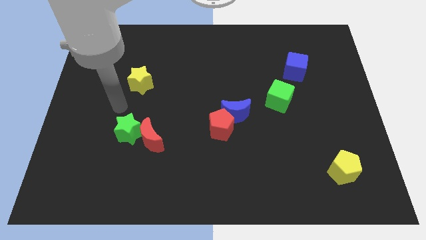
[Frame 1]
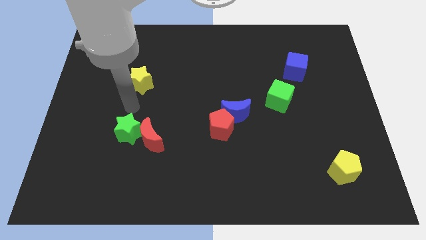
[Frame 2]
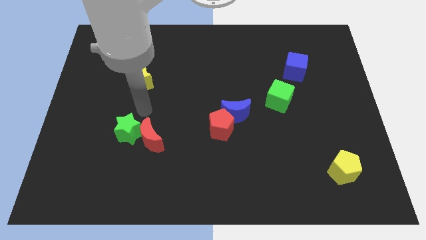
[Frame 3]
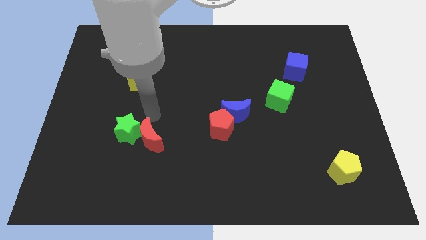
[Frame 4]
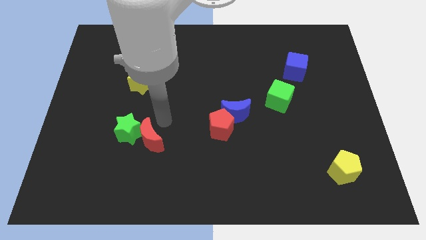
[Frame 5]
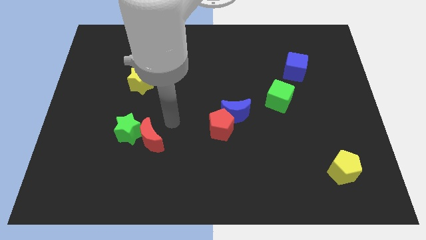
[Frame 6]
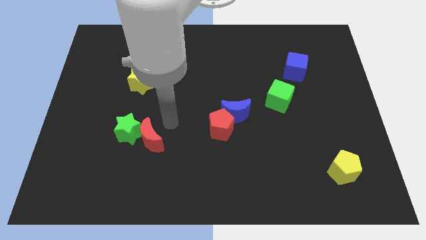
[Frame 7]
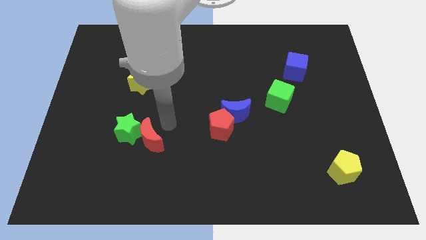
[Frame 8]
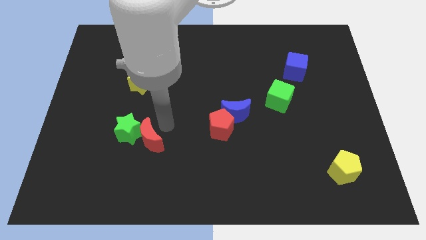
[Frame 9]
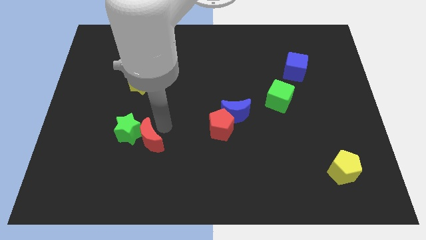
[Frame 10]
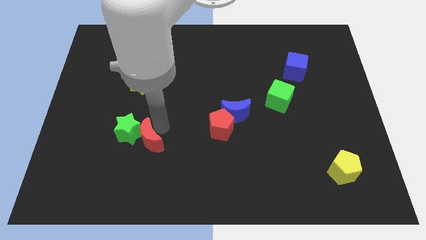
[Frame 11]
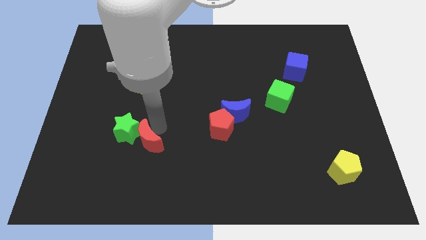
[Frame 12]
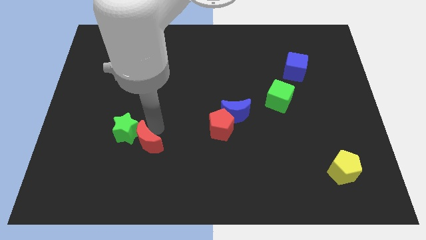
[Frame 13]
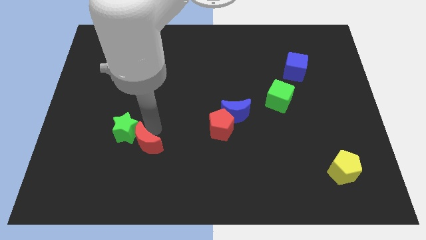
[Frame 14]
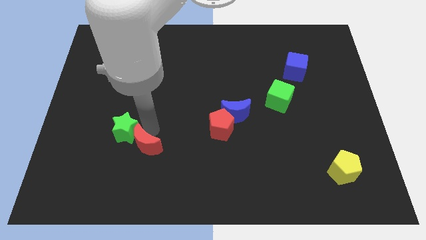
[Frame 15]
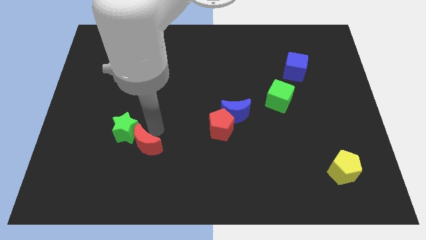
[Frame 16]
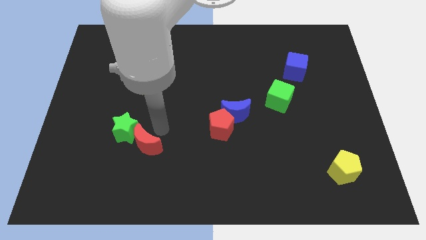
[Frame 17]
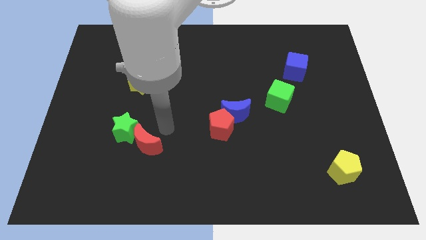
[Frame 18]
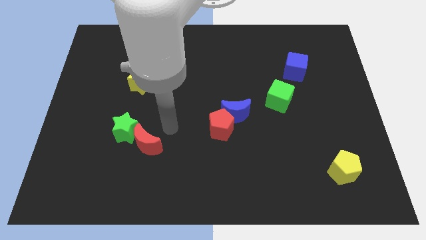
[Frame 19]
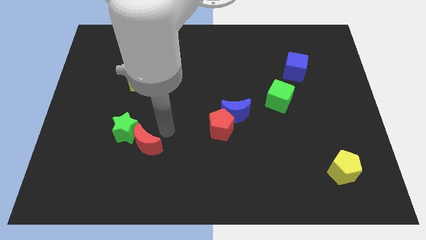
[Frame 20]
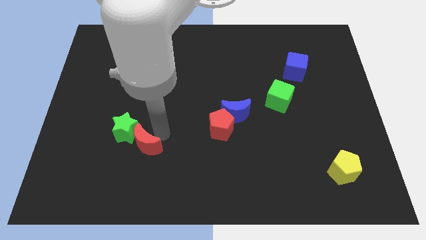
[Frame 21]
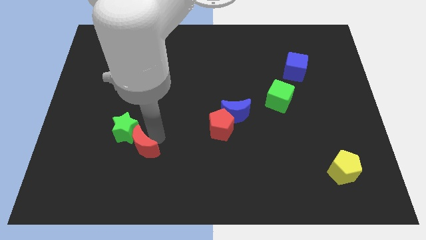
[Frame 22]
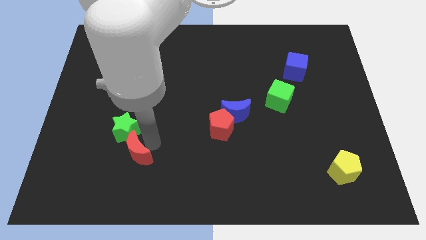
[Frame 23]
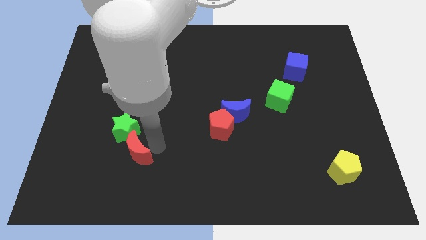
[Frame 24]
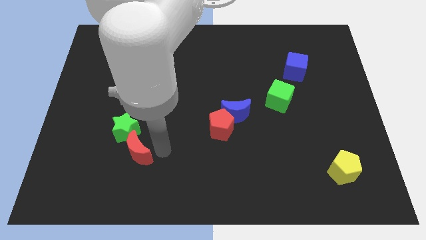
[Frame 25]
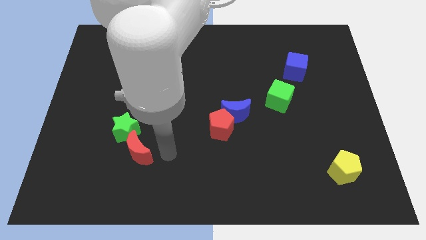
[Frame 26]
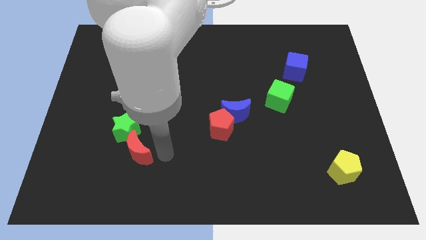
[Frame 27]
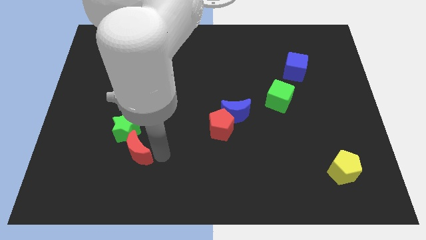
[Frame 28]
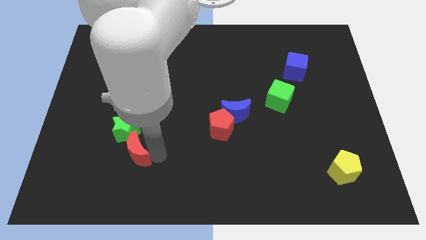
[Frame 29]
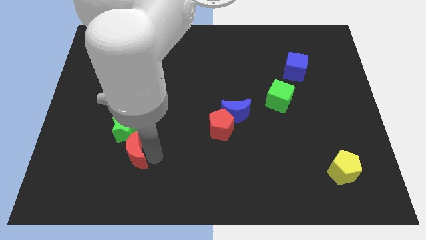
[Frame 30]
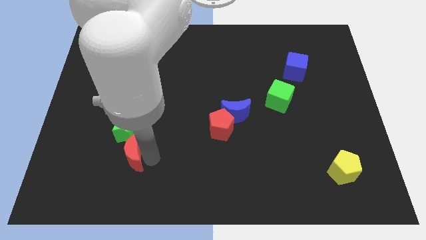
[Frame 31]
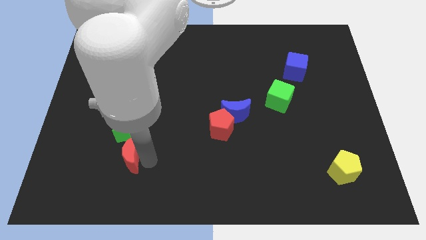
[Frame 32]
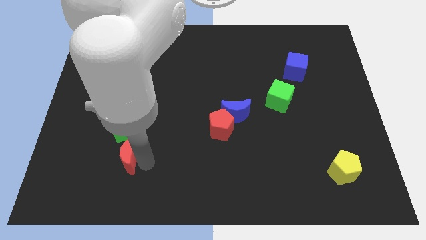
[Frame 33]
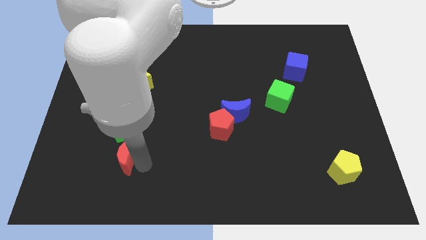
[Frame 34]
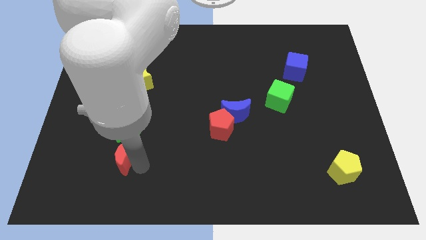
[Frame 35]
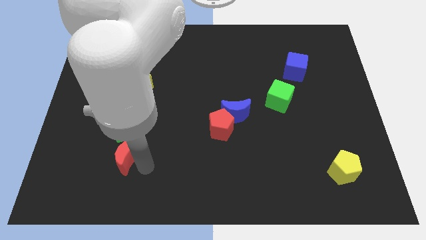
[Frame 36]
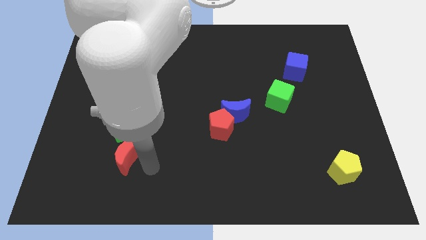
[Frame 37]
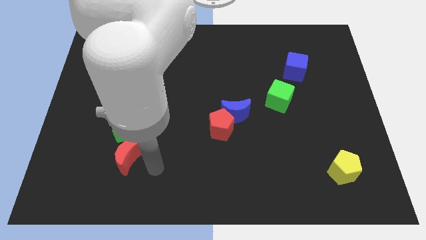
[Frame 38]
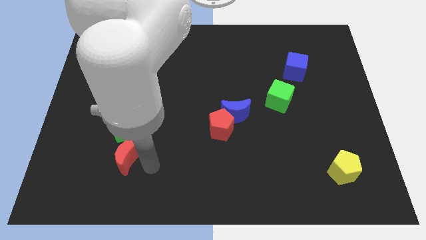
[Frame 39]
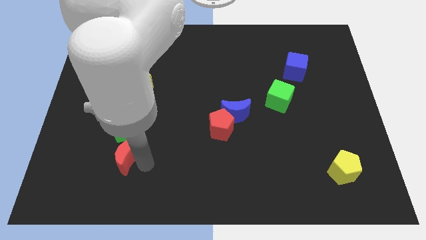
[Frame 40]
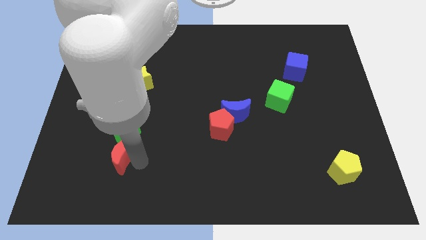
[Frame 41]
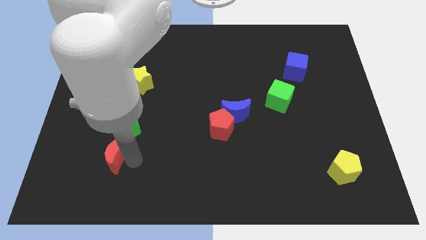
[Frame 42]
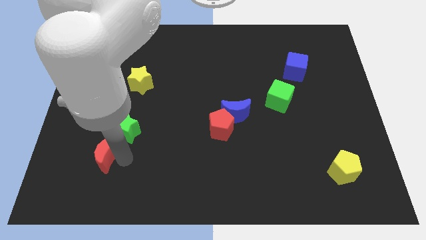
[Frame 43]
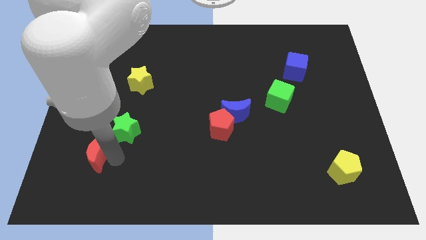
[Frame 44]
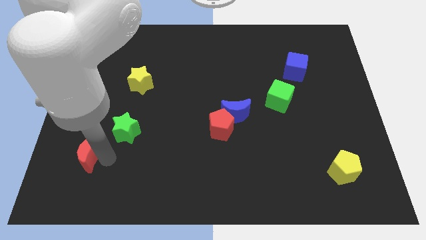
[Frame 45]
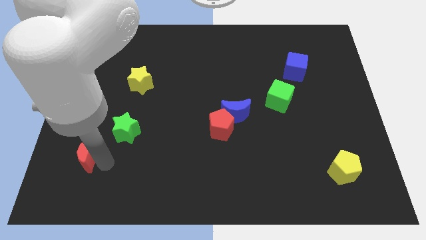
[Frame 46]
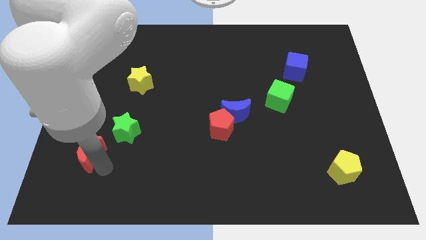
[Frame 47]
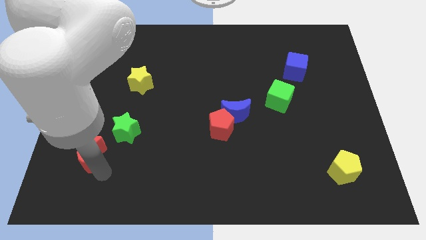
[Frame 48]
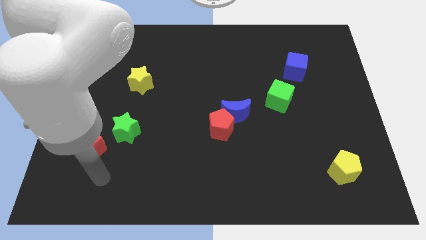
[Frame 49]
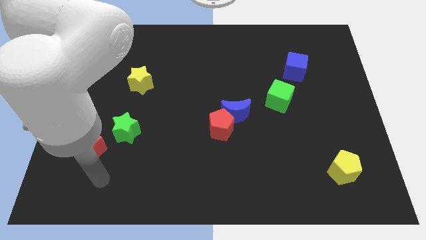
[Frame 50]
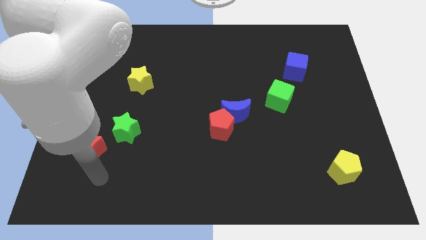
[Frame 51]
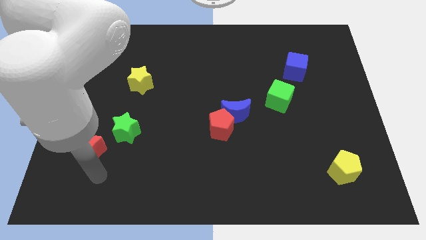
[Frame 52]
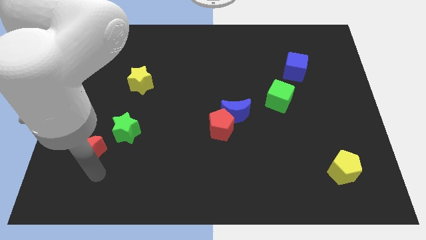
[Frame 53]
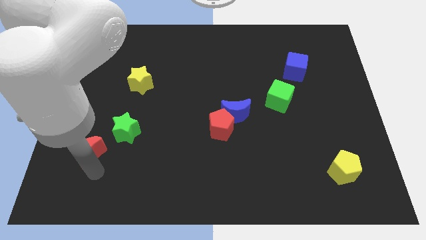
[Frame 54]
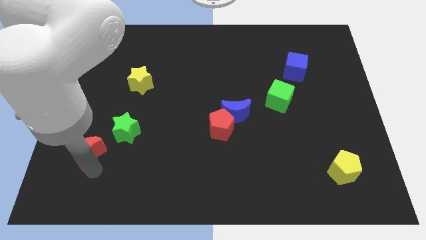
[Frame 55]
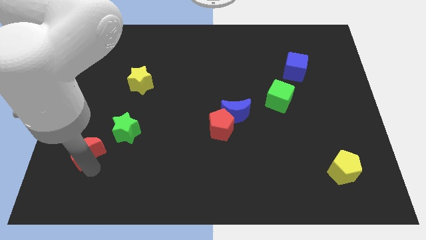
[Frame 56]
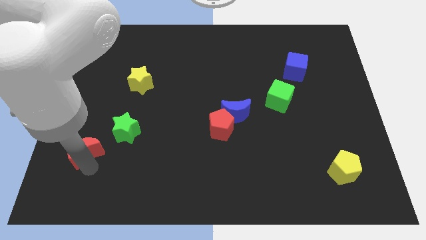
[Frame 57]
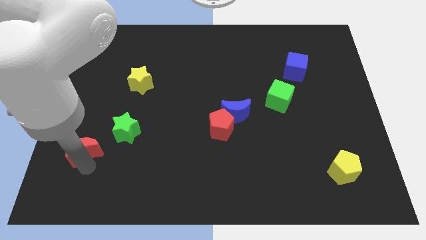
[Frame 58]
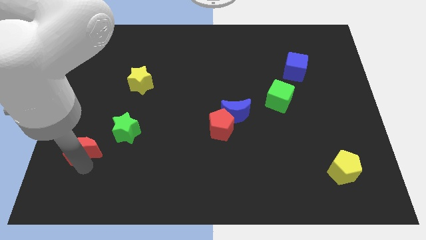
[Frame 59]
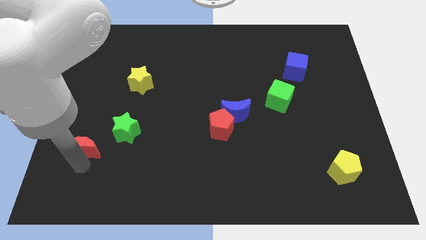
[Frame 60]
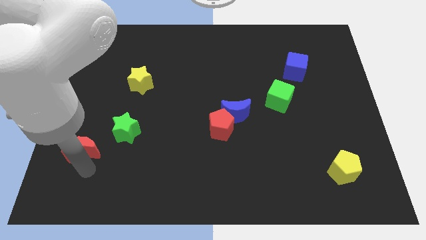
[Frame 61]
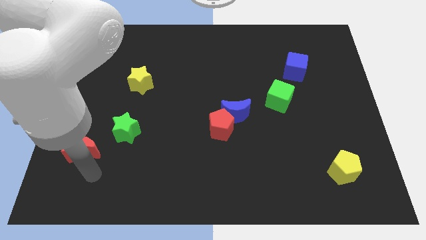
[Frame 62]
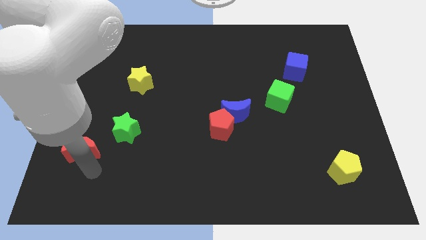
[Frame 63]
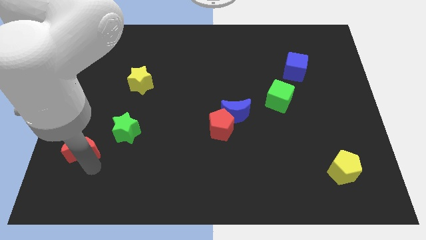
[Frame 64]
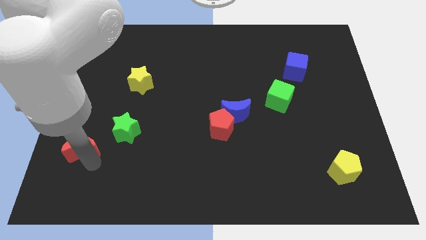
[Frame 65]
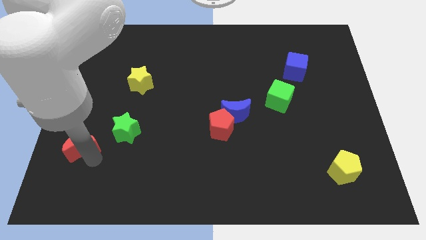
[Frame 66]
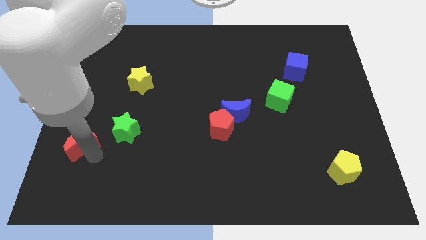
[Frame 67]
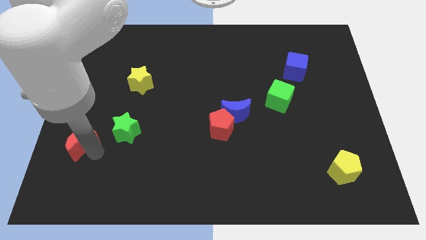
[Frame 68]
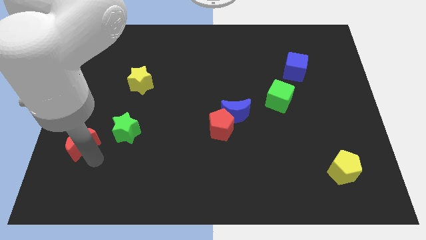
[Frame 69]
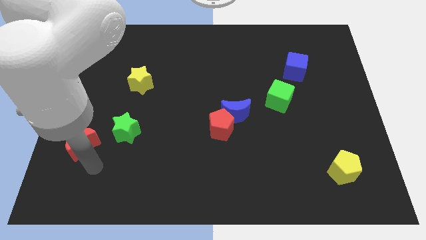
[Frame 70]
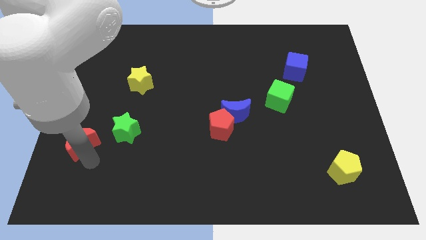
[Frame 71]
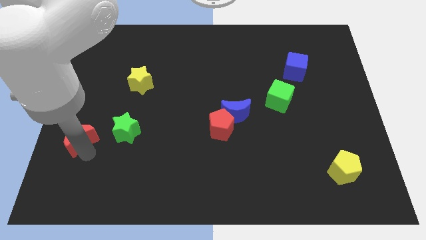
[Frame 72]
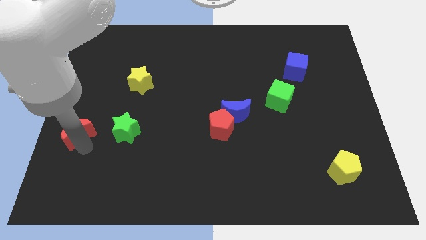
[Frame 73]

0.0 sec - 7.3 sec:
push the red moon to the left side of the board
